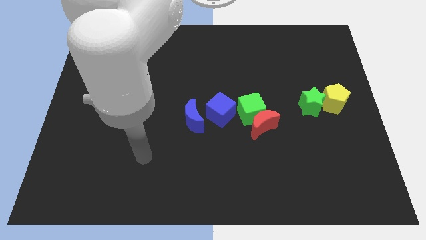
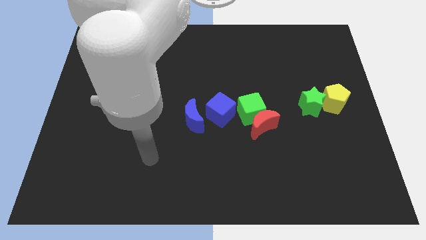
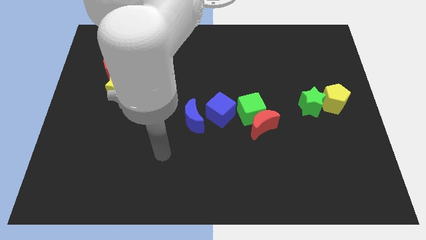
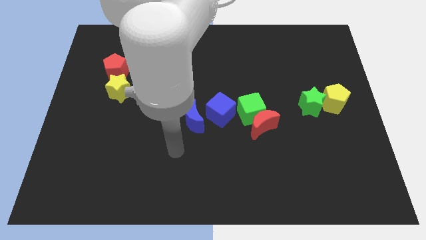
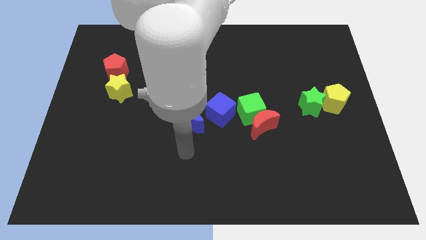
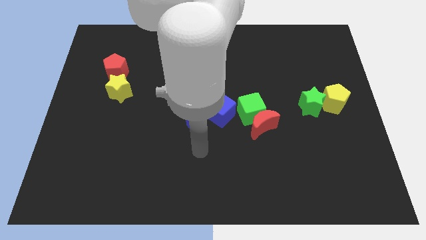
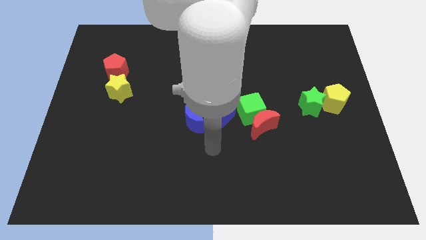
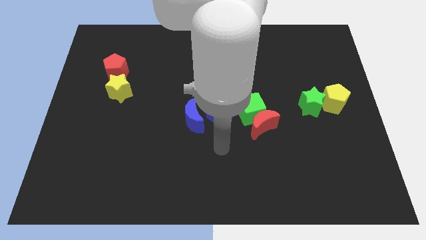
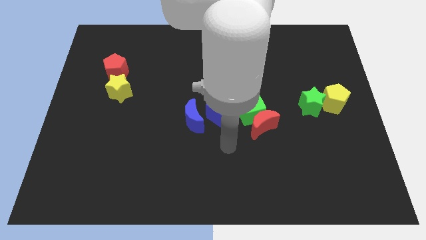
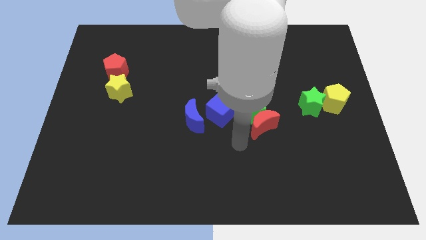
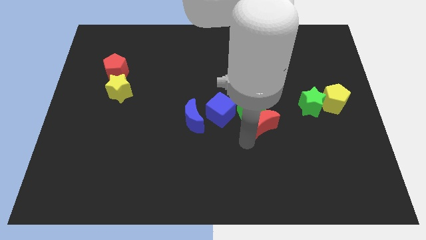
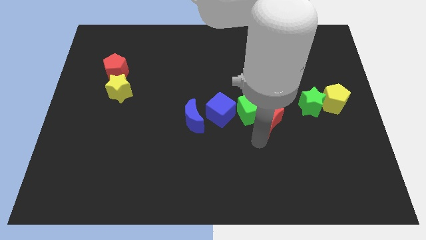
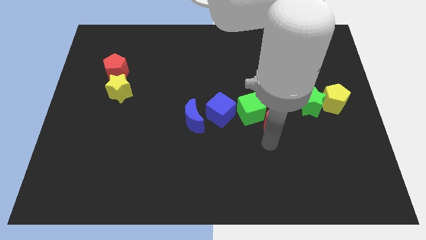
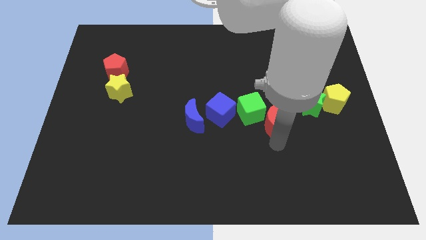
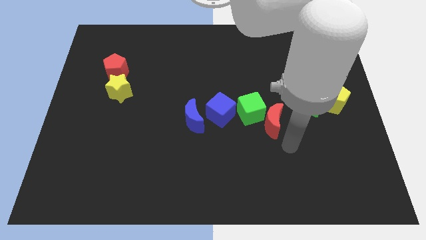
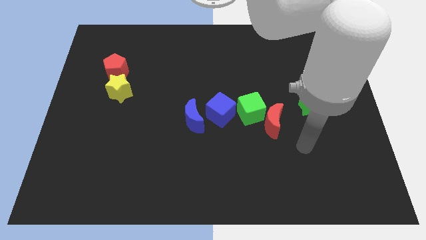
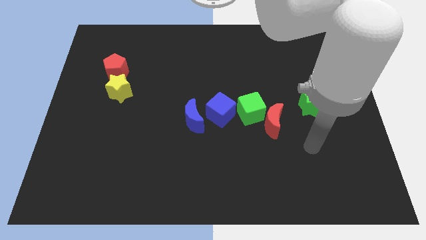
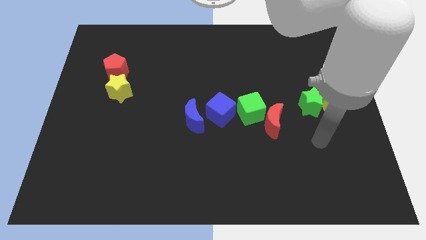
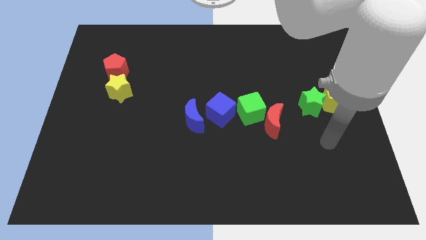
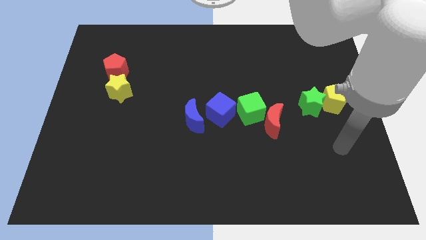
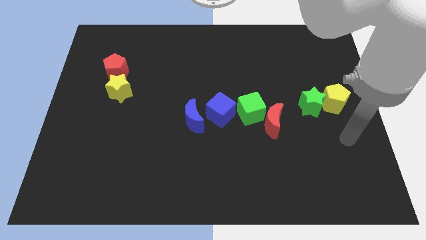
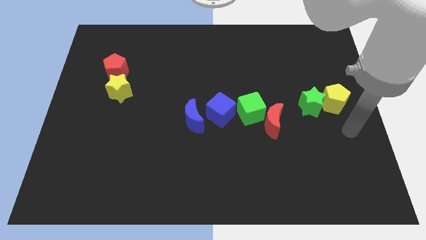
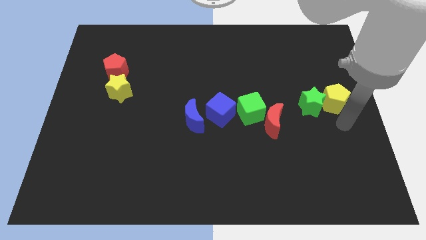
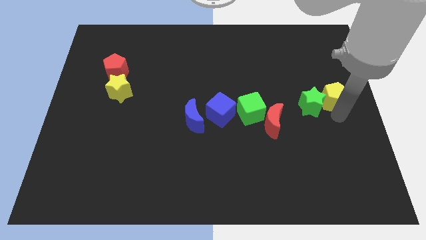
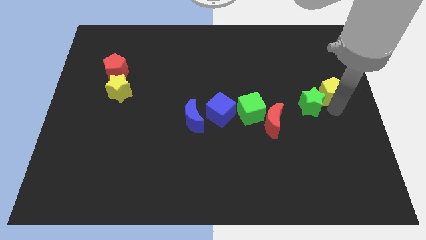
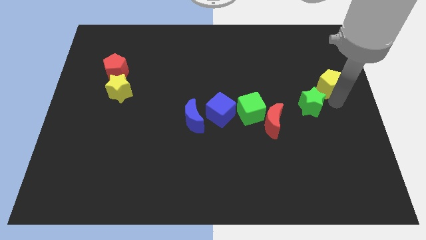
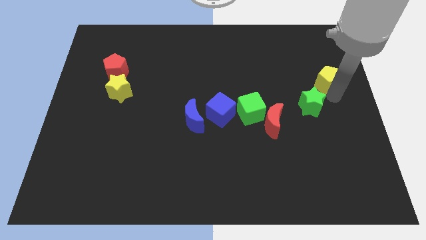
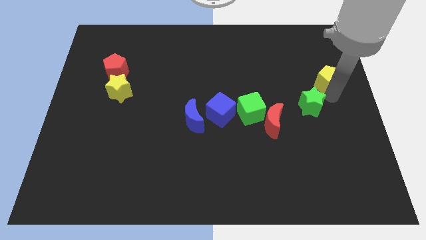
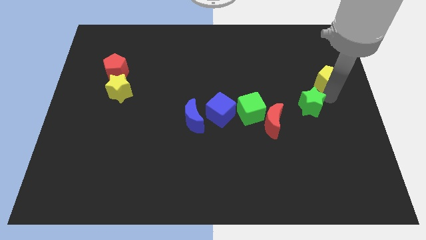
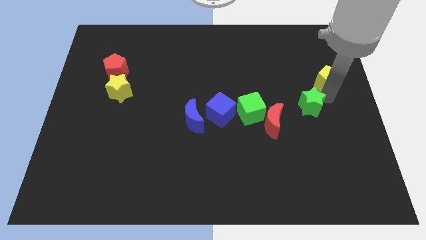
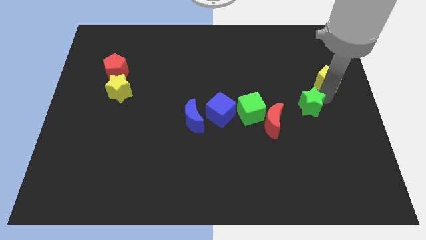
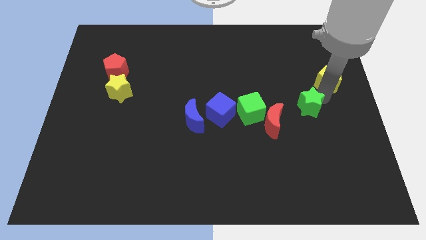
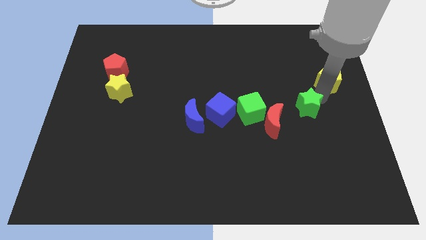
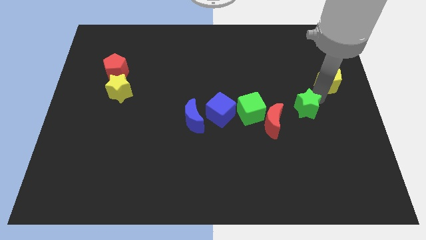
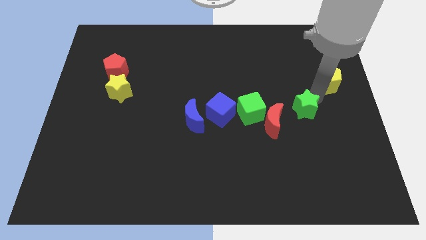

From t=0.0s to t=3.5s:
move the green star away from the yellow pentagon

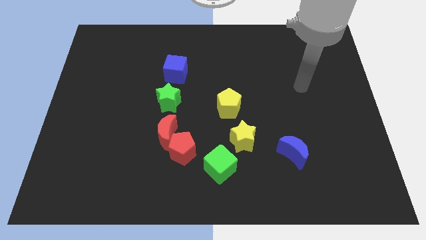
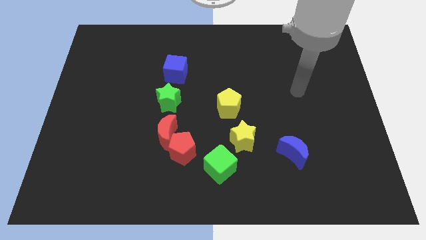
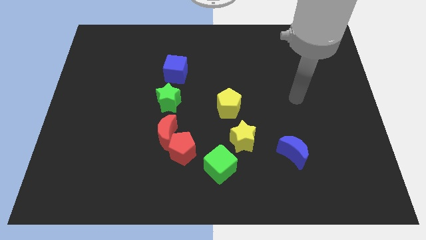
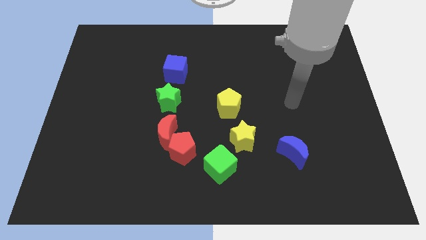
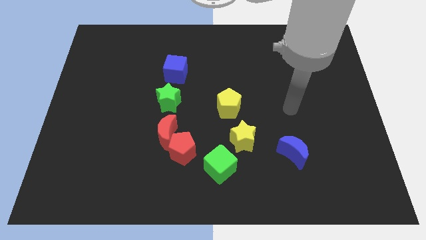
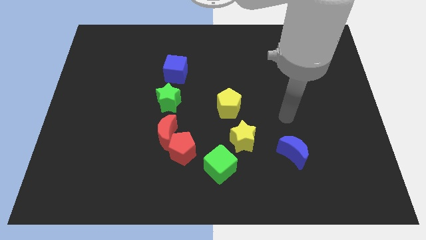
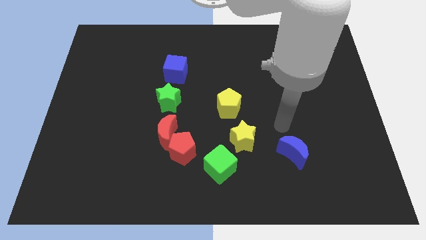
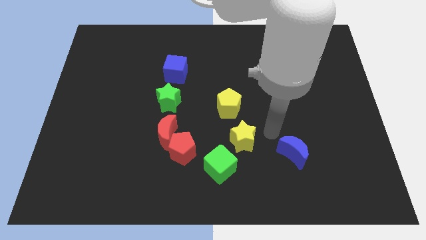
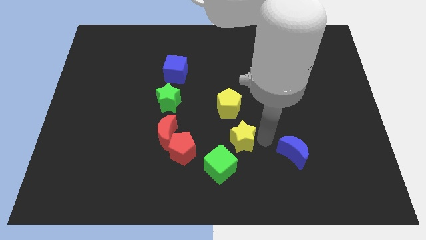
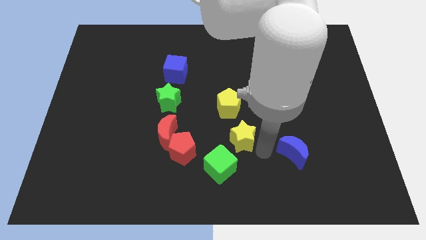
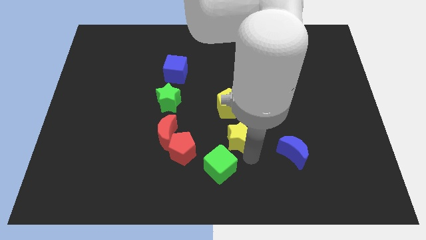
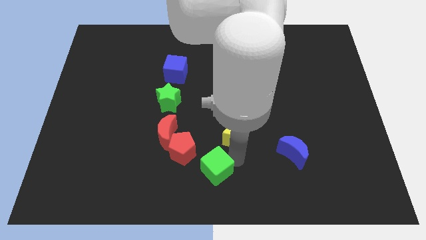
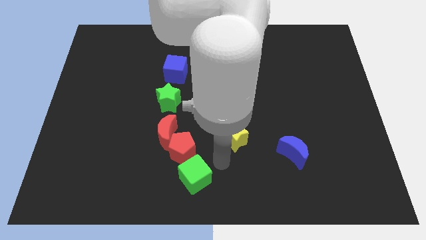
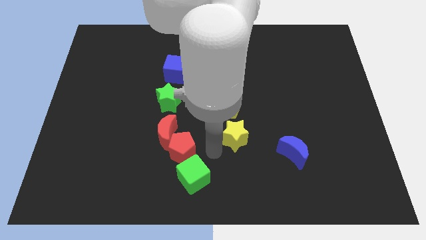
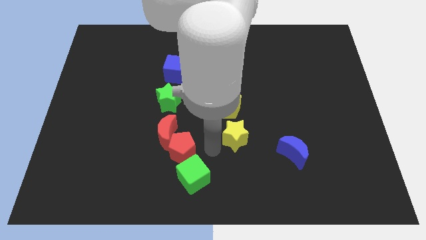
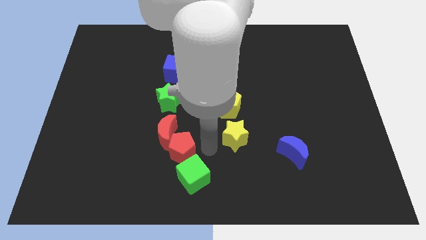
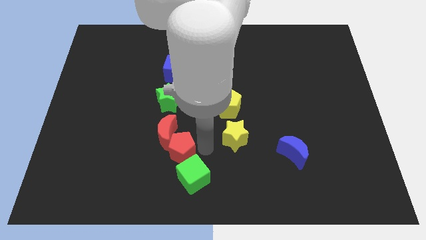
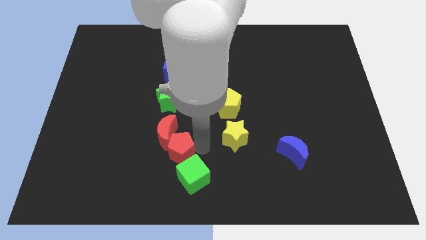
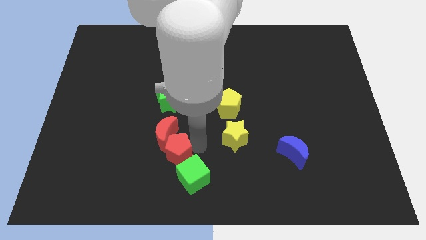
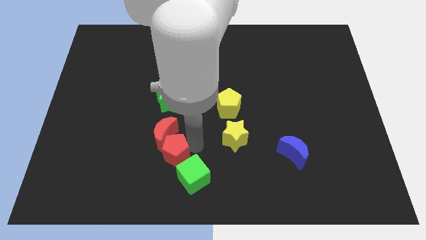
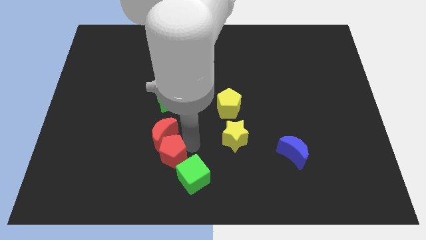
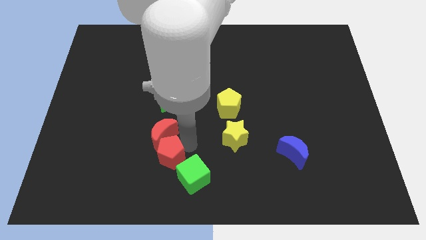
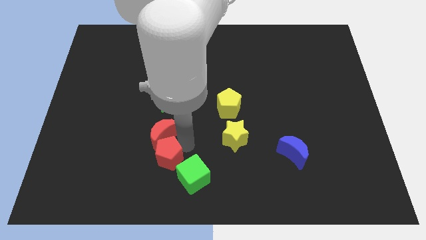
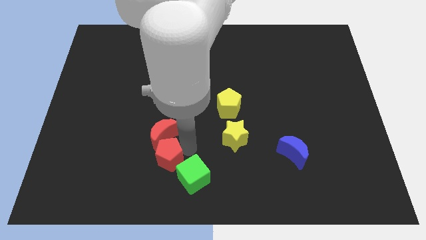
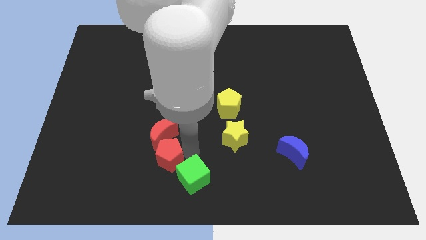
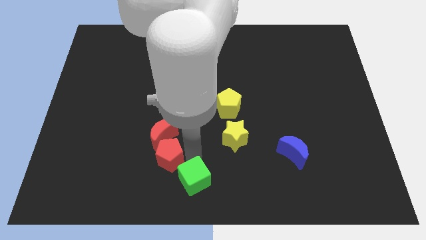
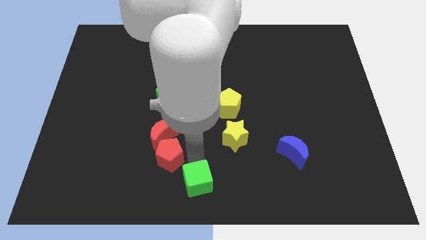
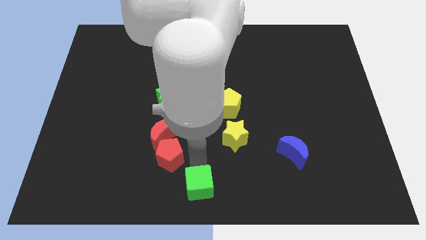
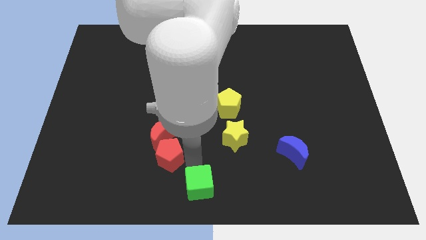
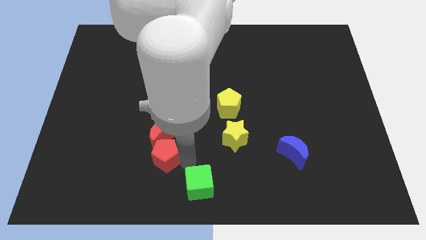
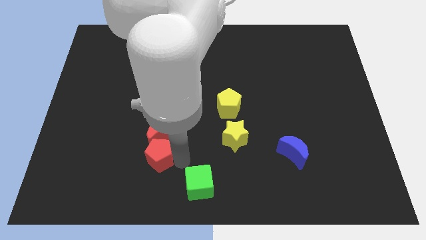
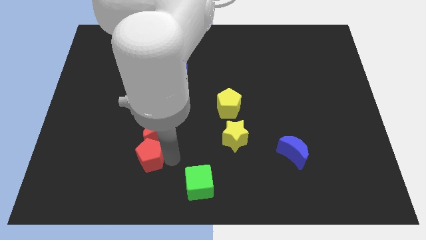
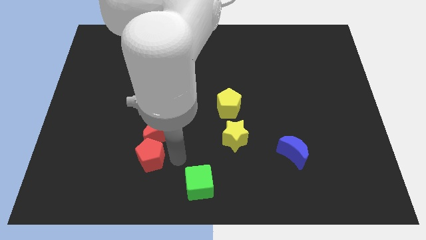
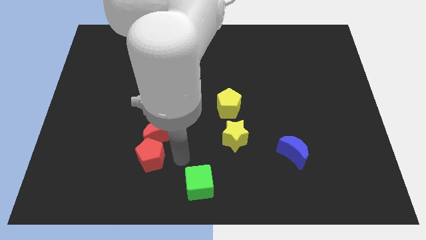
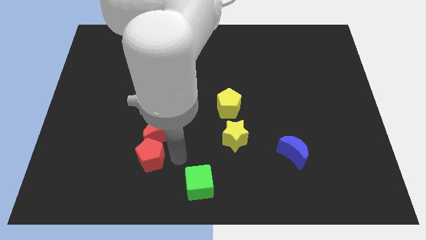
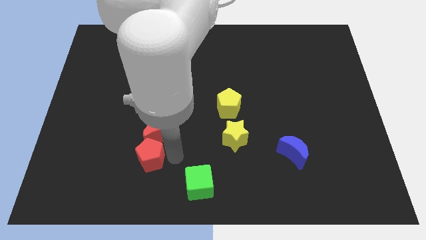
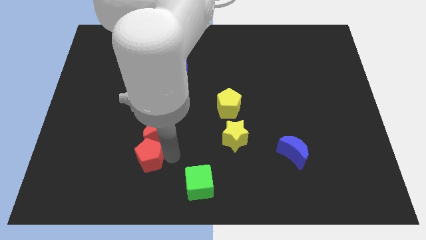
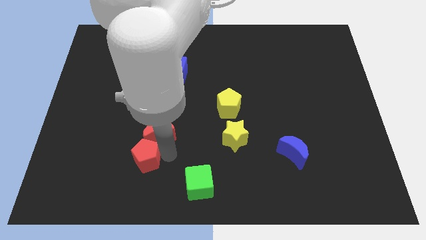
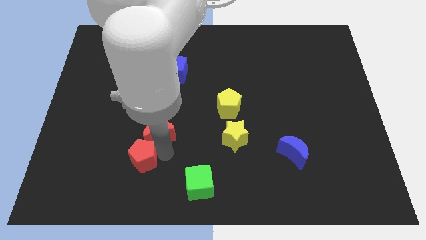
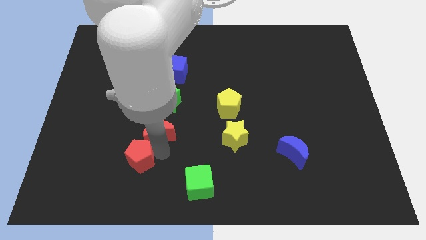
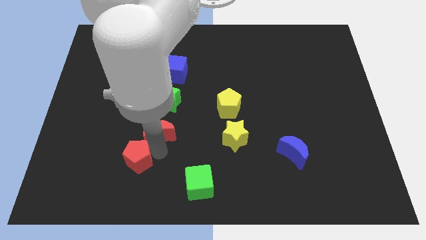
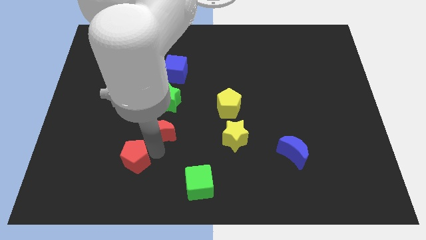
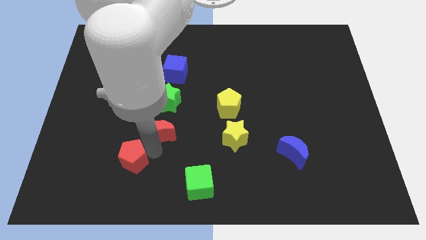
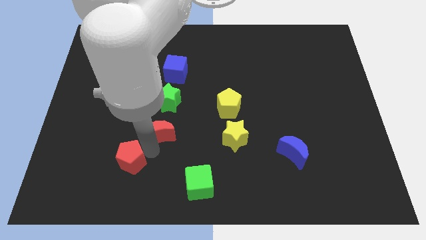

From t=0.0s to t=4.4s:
separate the red pentagon from the red moon and green cube

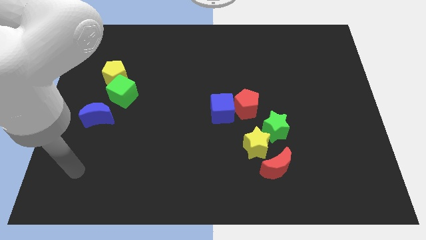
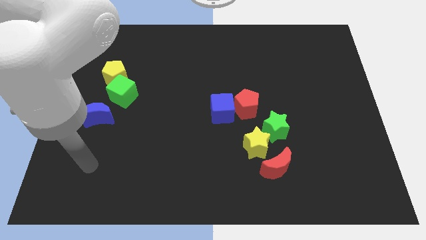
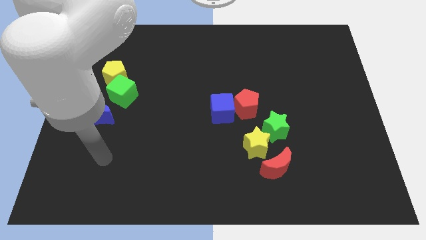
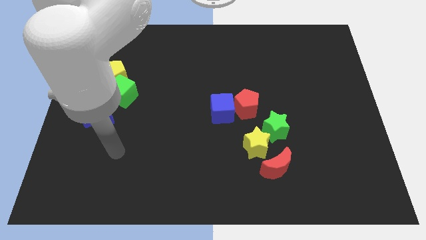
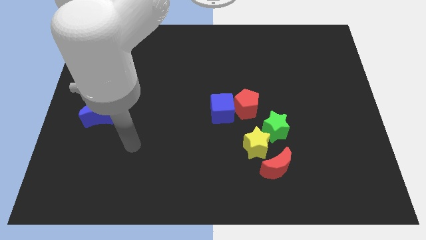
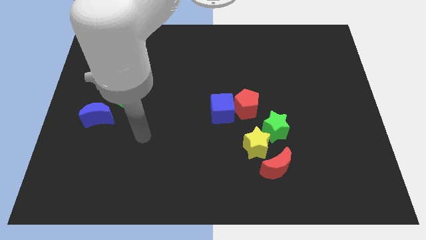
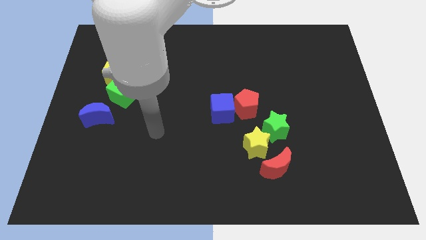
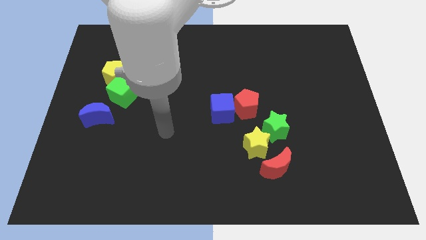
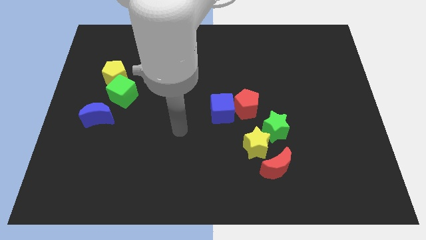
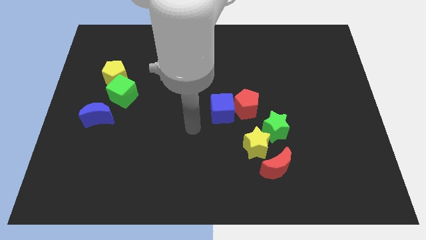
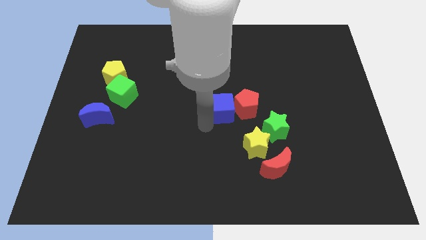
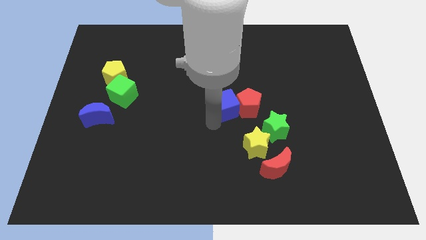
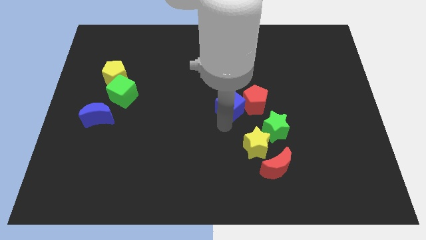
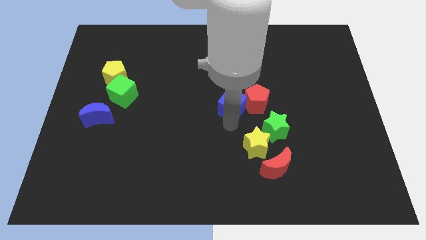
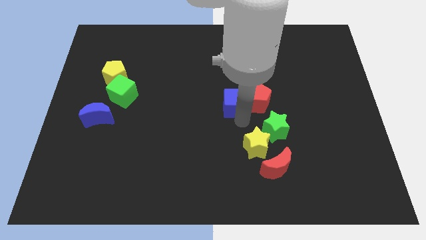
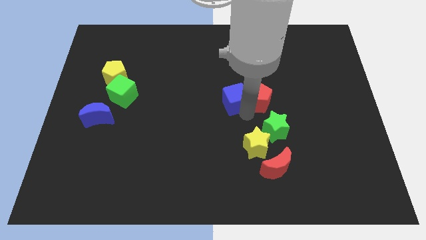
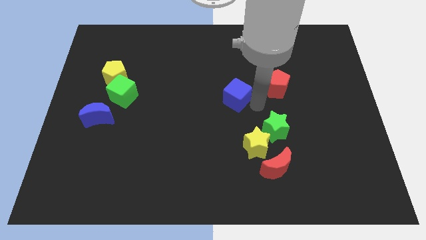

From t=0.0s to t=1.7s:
pull the blue cube apart from the red pentagon
